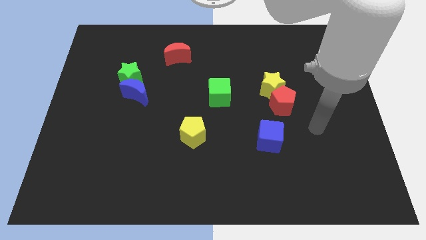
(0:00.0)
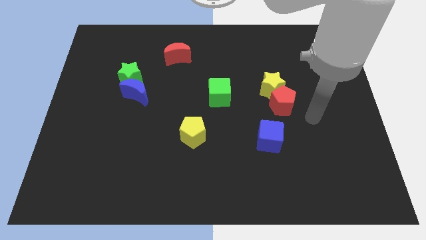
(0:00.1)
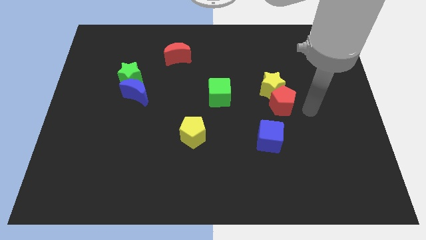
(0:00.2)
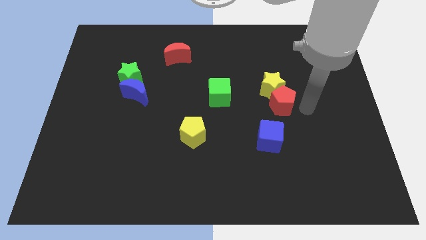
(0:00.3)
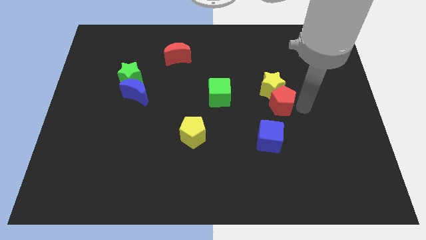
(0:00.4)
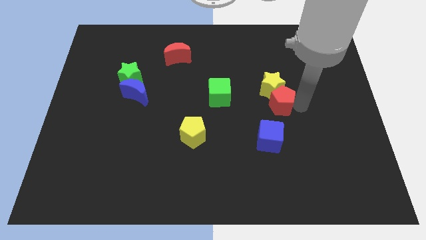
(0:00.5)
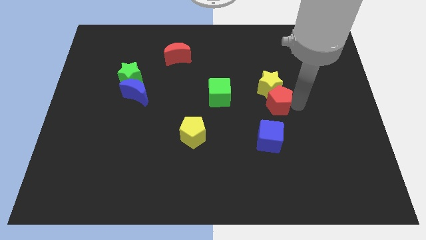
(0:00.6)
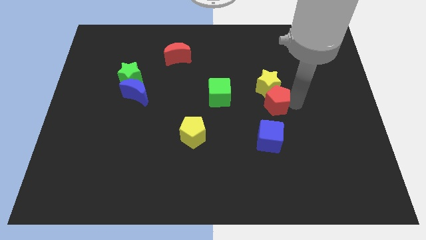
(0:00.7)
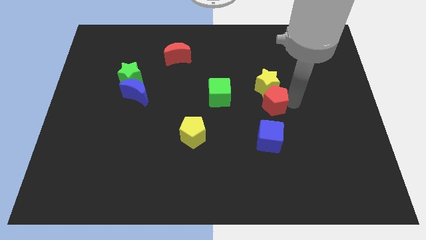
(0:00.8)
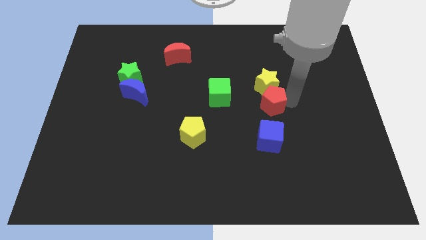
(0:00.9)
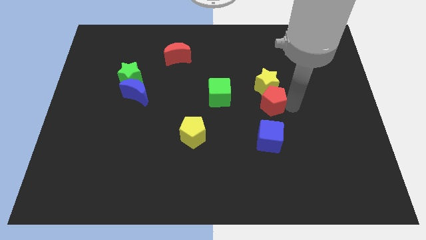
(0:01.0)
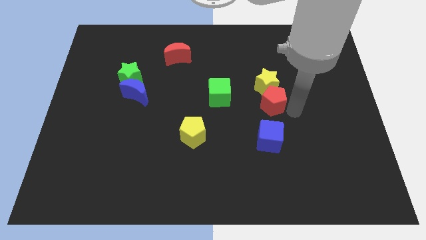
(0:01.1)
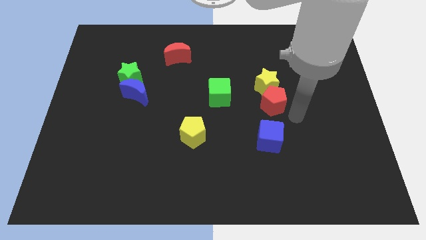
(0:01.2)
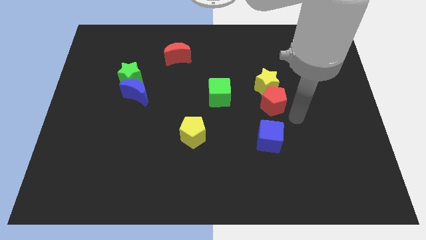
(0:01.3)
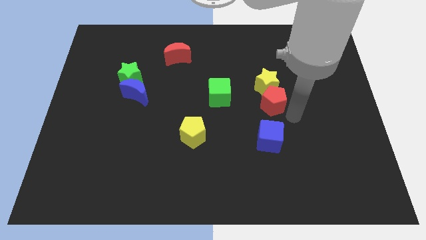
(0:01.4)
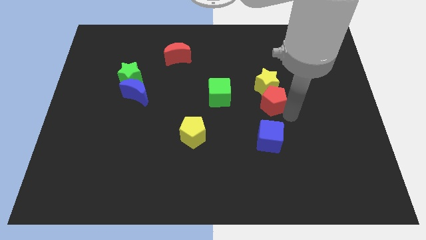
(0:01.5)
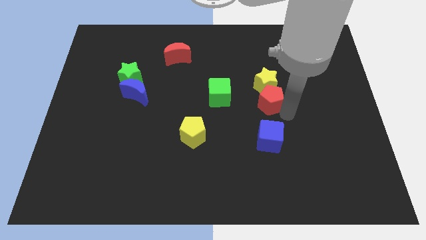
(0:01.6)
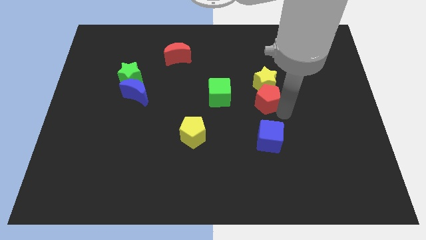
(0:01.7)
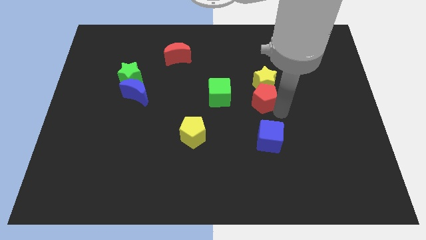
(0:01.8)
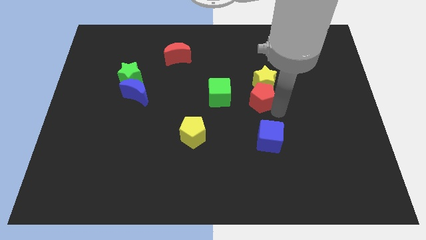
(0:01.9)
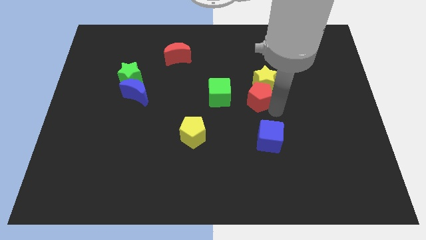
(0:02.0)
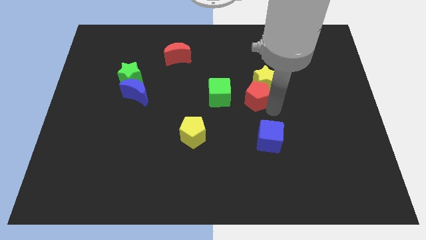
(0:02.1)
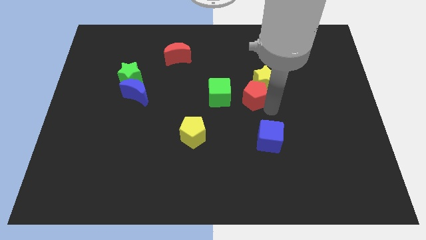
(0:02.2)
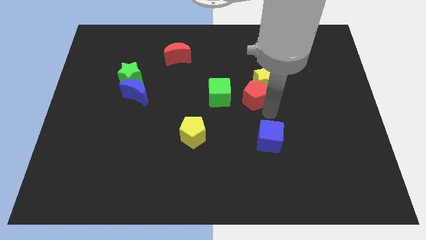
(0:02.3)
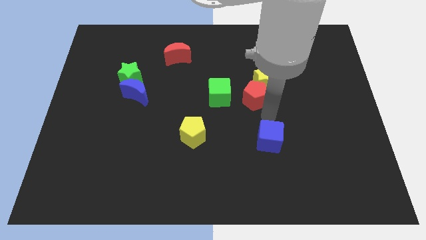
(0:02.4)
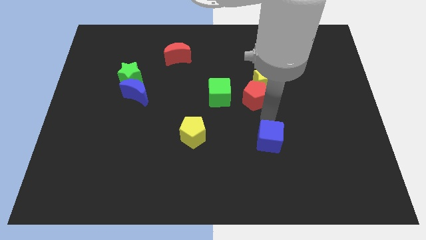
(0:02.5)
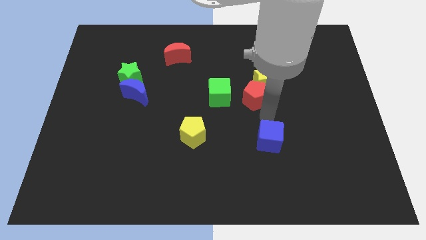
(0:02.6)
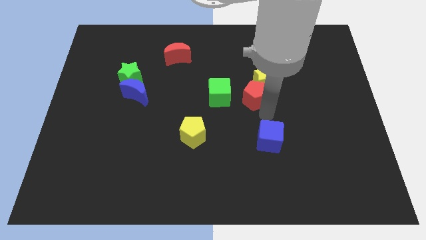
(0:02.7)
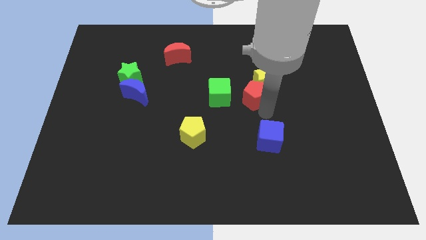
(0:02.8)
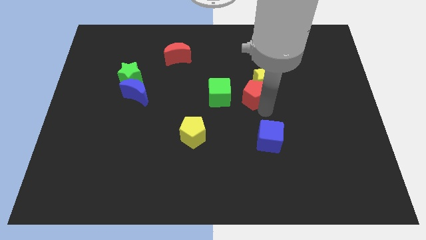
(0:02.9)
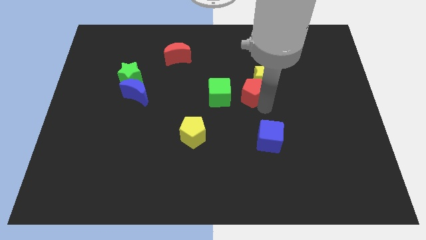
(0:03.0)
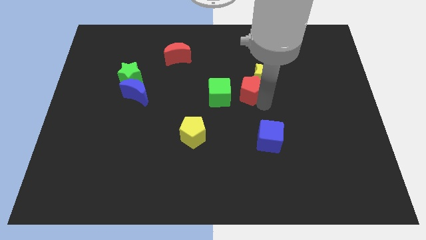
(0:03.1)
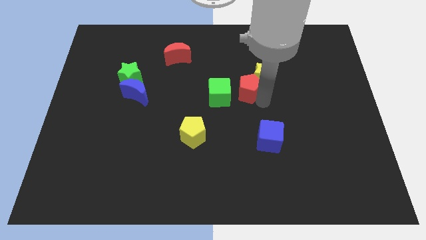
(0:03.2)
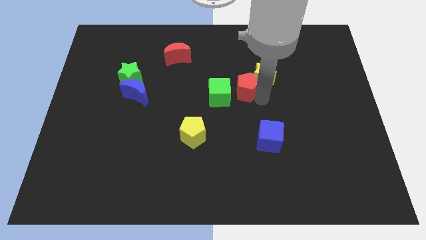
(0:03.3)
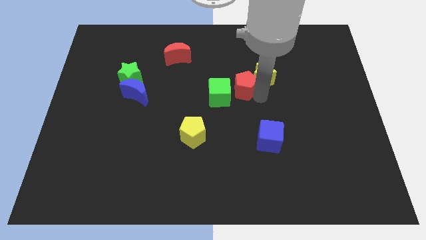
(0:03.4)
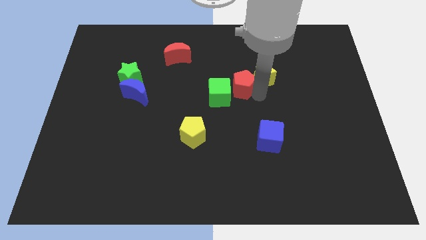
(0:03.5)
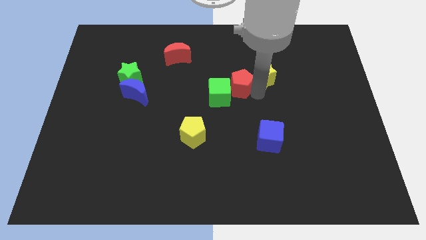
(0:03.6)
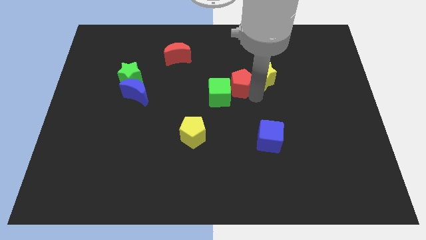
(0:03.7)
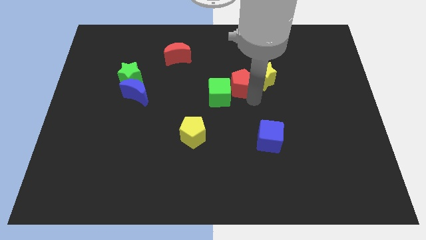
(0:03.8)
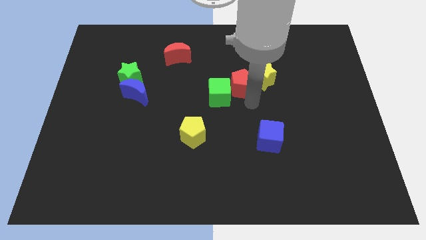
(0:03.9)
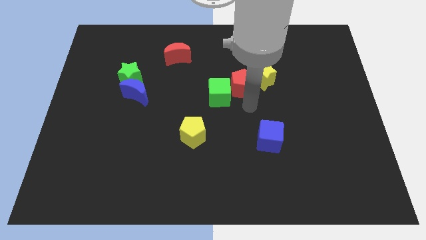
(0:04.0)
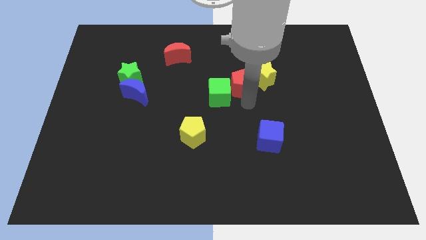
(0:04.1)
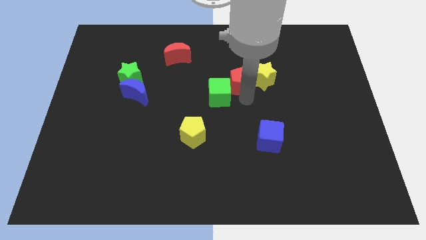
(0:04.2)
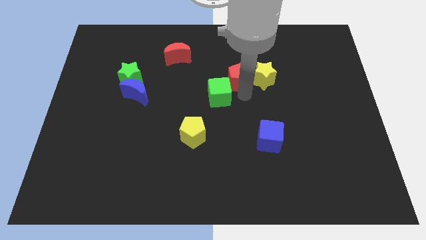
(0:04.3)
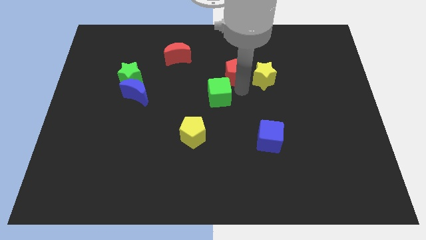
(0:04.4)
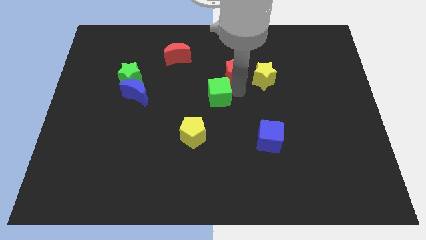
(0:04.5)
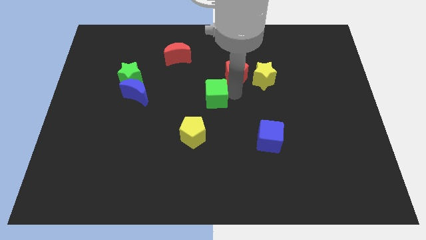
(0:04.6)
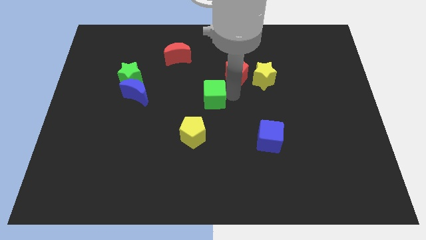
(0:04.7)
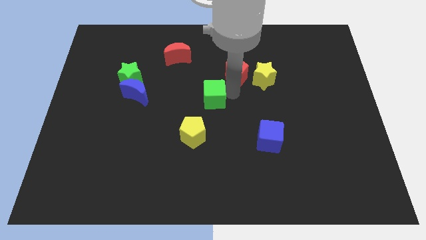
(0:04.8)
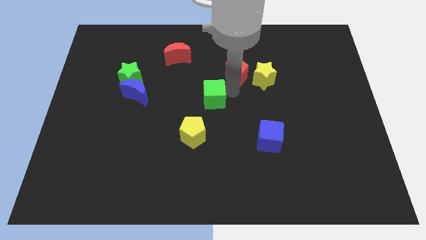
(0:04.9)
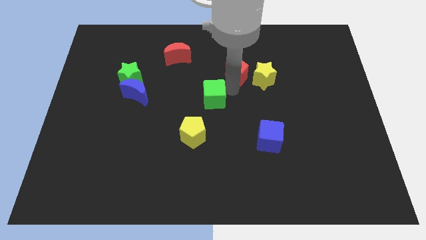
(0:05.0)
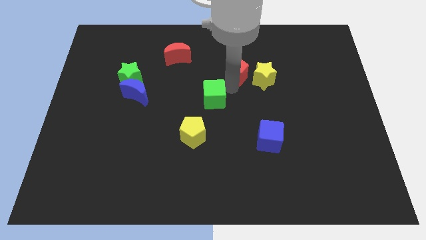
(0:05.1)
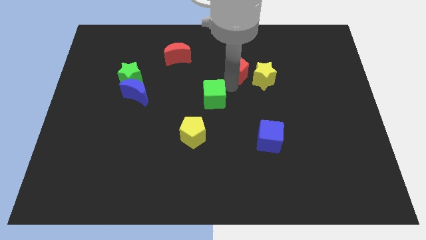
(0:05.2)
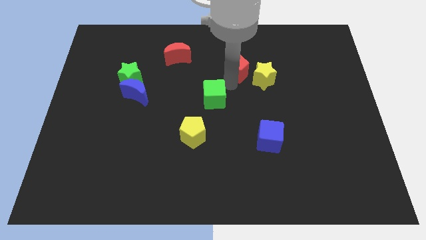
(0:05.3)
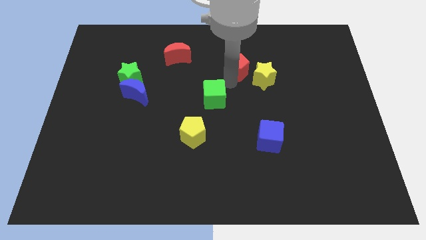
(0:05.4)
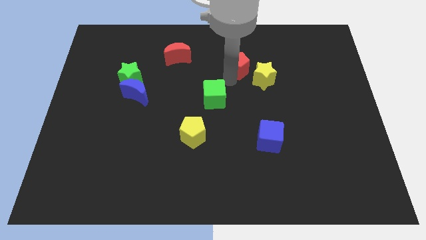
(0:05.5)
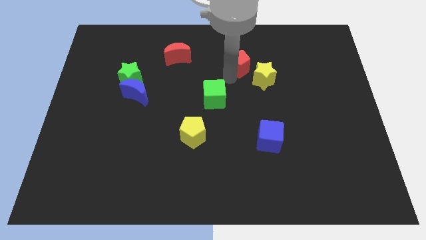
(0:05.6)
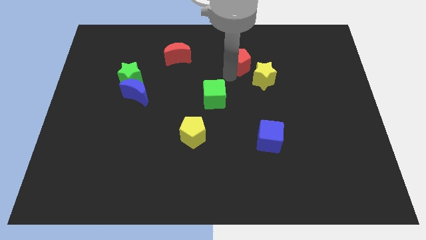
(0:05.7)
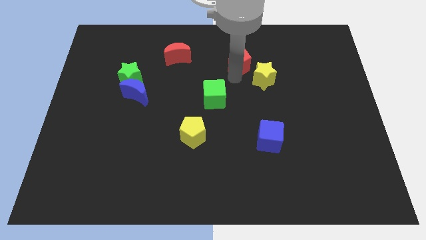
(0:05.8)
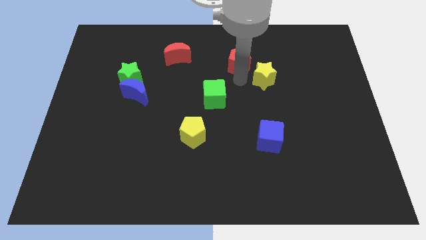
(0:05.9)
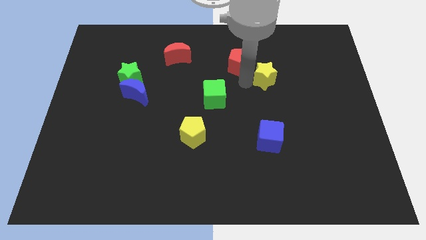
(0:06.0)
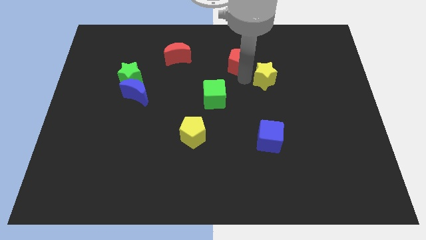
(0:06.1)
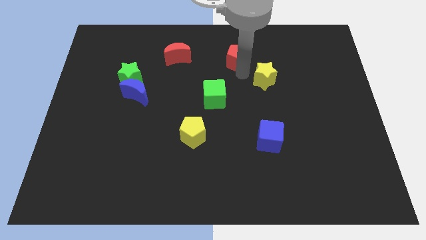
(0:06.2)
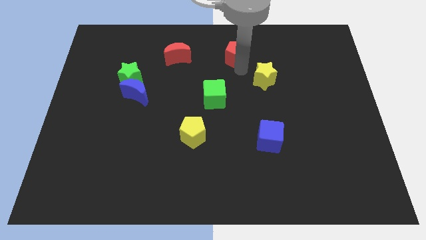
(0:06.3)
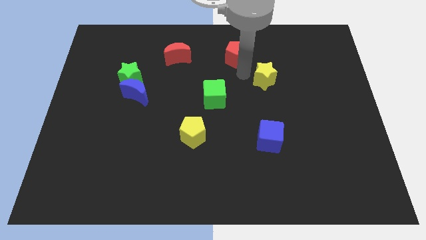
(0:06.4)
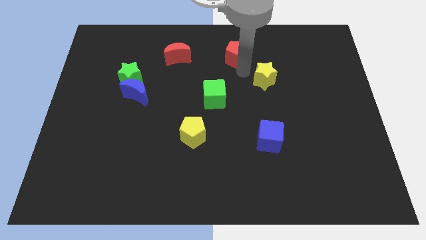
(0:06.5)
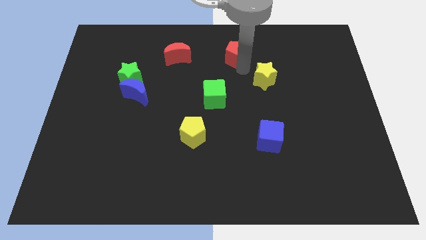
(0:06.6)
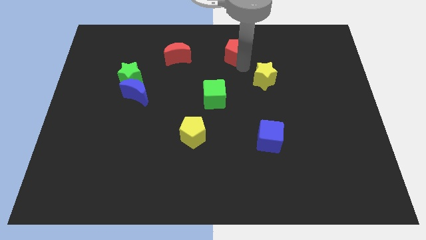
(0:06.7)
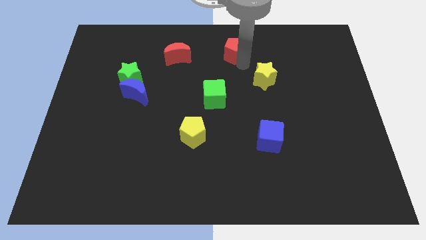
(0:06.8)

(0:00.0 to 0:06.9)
push the red pentagon to the top side
